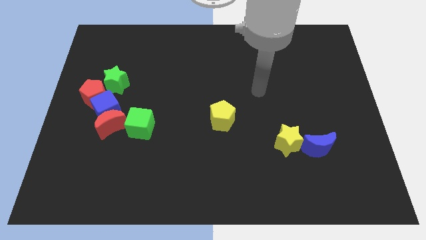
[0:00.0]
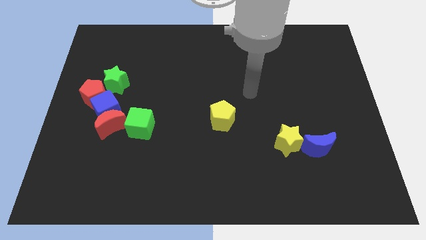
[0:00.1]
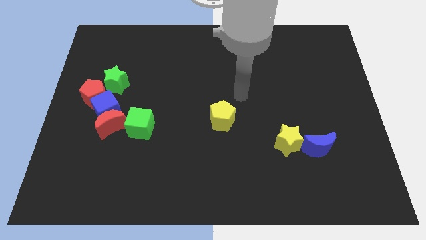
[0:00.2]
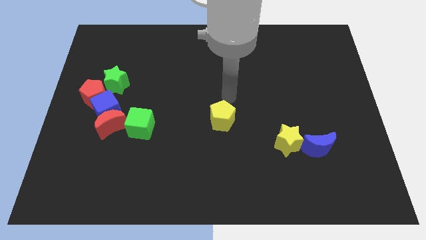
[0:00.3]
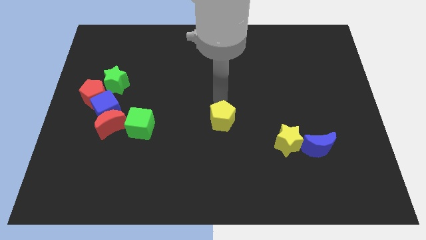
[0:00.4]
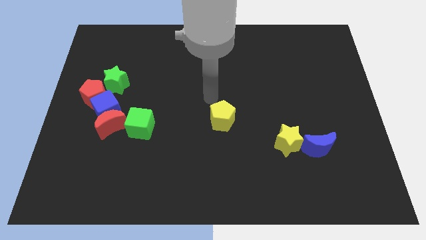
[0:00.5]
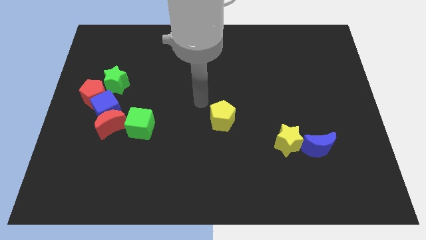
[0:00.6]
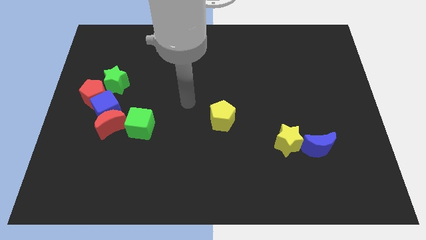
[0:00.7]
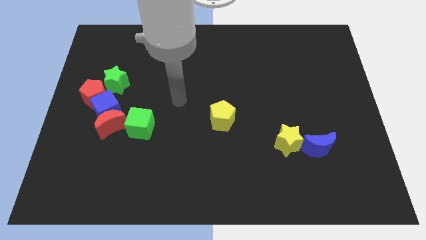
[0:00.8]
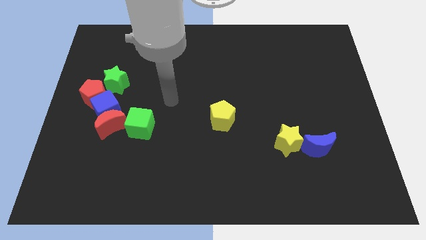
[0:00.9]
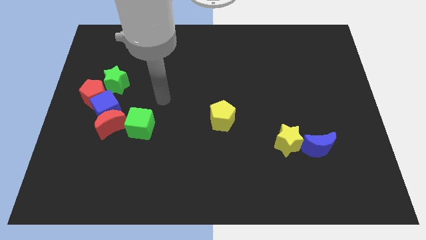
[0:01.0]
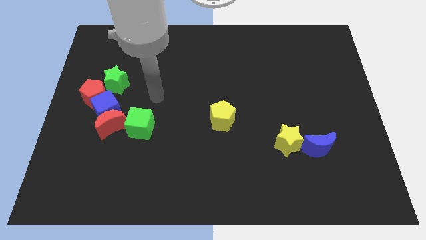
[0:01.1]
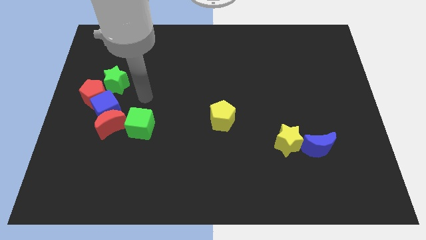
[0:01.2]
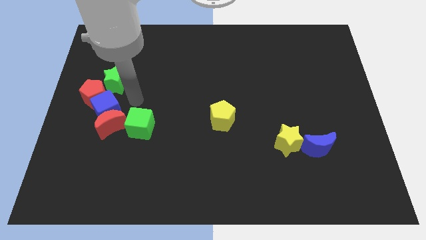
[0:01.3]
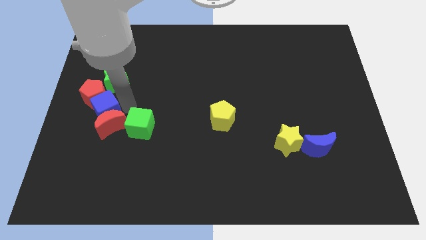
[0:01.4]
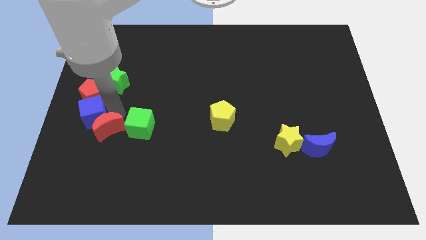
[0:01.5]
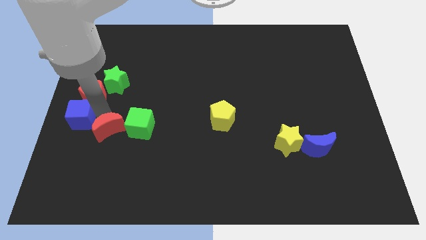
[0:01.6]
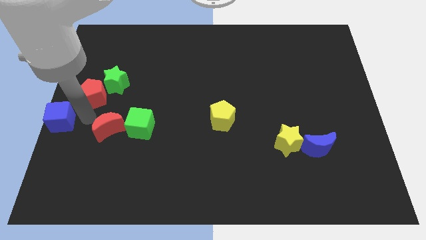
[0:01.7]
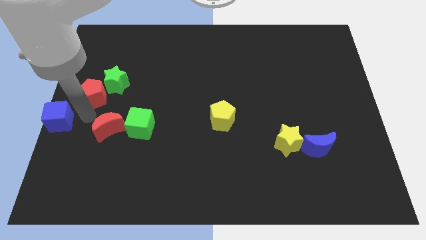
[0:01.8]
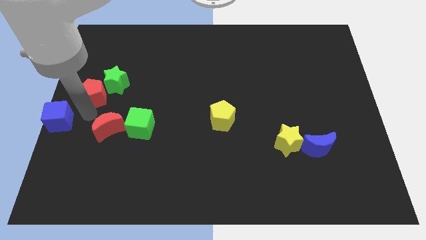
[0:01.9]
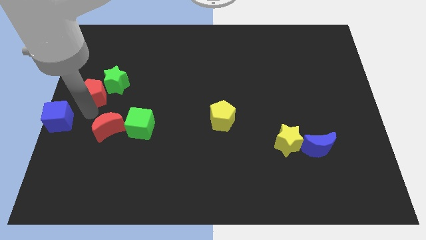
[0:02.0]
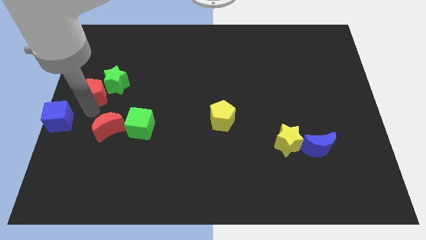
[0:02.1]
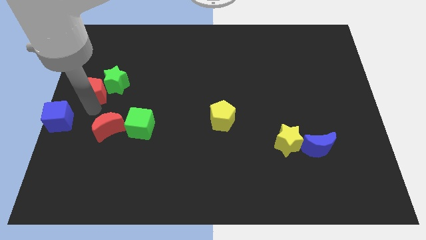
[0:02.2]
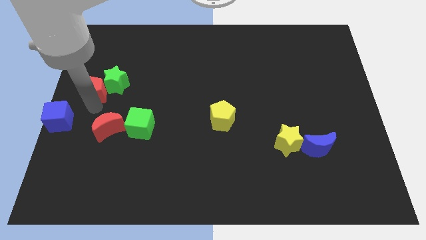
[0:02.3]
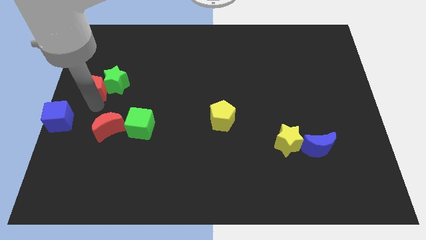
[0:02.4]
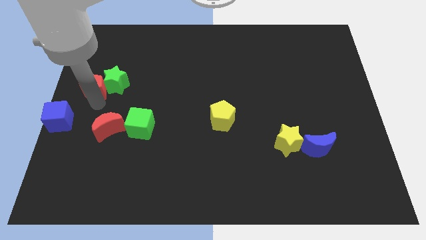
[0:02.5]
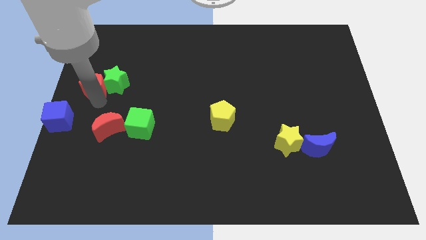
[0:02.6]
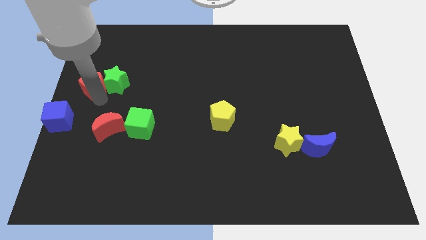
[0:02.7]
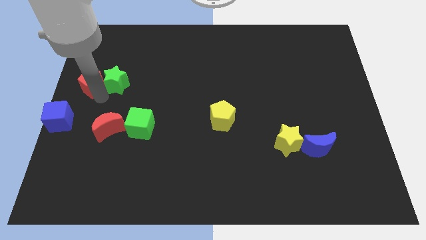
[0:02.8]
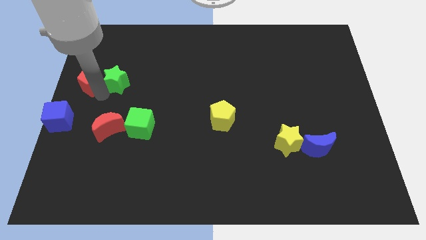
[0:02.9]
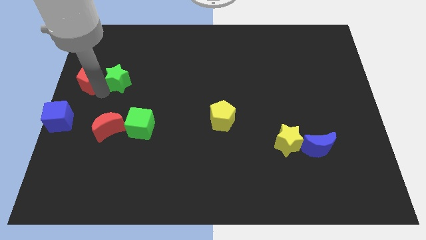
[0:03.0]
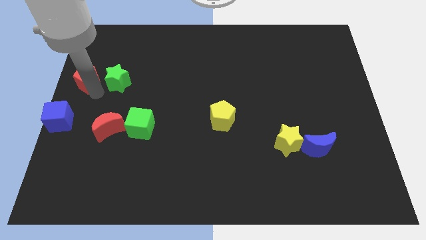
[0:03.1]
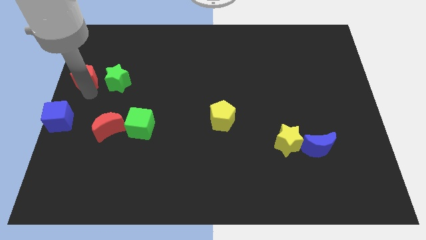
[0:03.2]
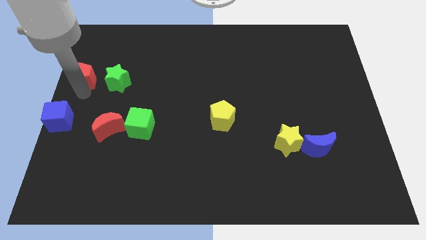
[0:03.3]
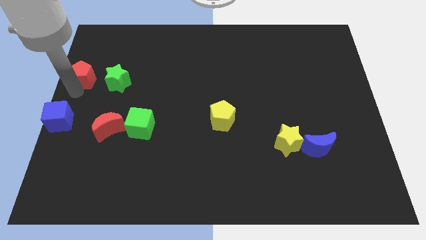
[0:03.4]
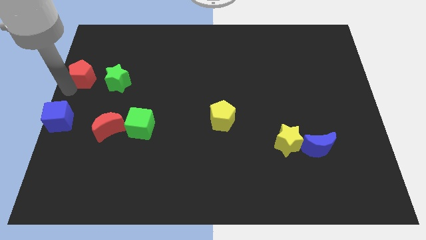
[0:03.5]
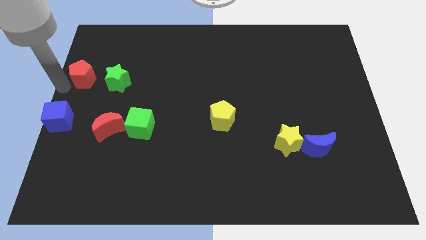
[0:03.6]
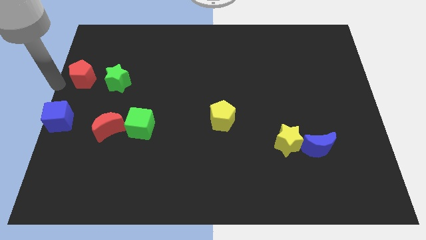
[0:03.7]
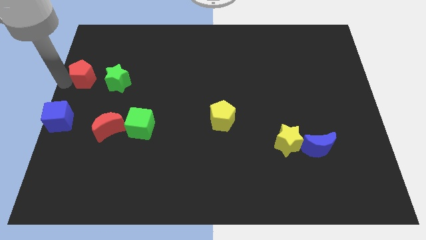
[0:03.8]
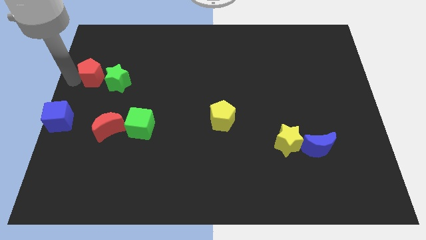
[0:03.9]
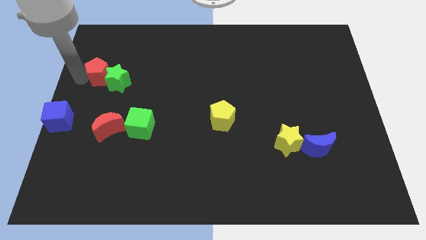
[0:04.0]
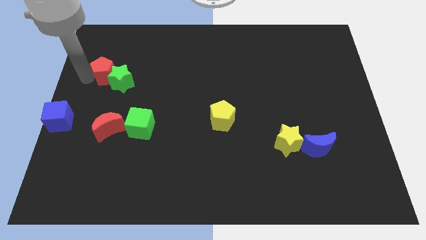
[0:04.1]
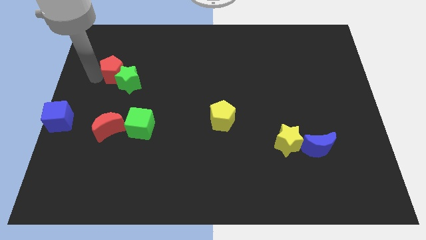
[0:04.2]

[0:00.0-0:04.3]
slightly move the red pentagon upwards and then to the right

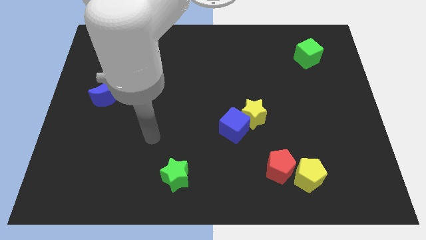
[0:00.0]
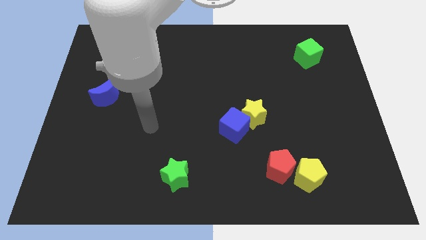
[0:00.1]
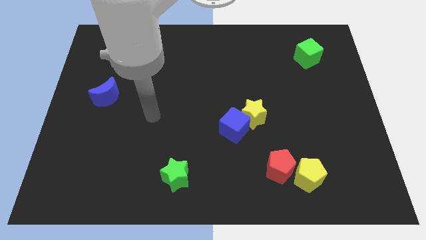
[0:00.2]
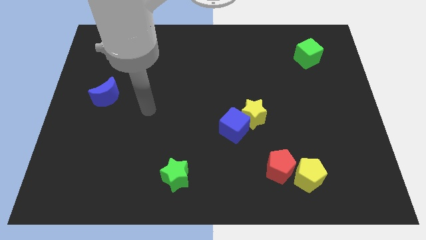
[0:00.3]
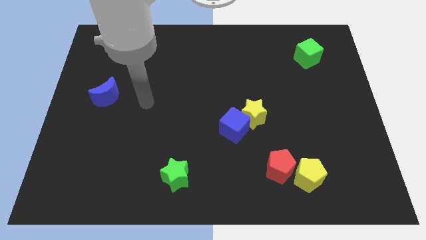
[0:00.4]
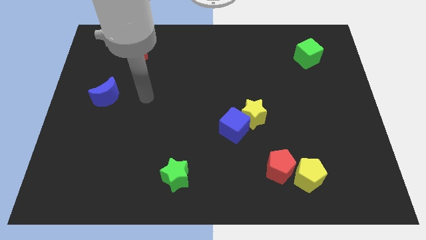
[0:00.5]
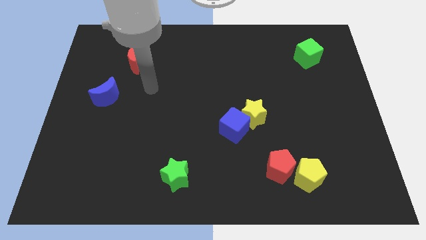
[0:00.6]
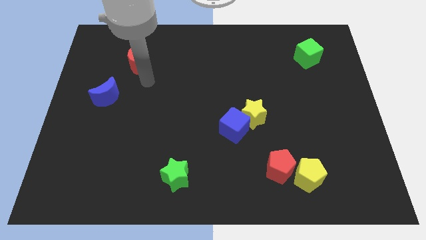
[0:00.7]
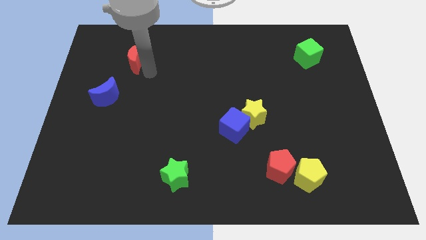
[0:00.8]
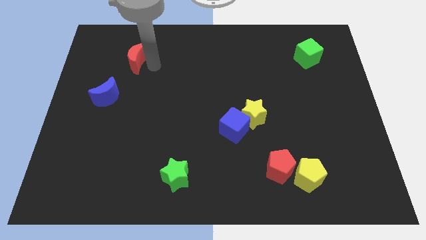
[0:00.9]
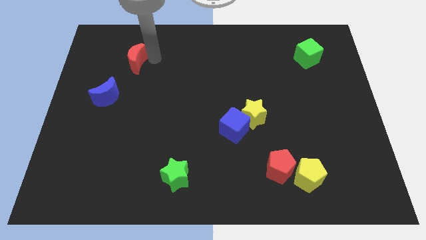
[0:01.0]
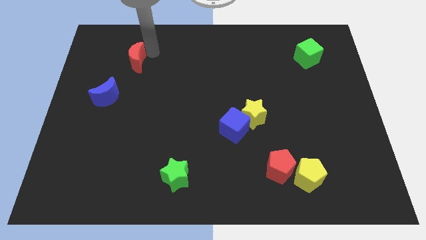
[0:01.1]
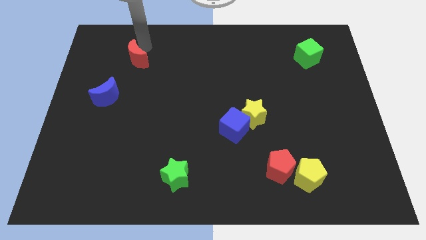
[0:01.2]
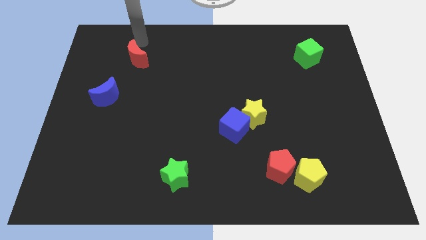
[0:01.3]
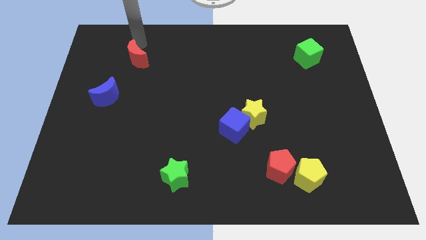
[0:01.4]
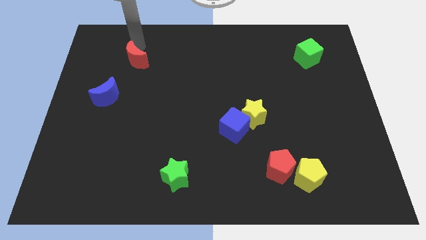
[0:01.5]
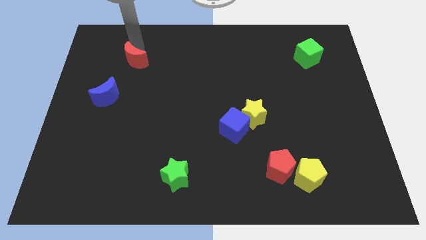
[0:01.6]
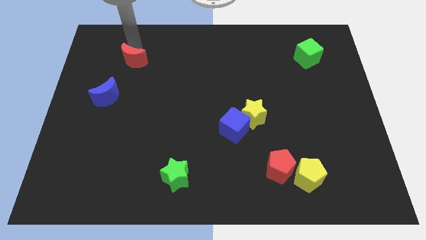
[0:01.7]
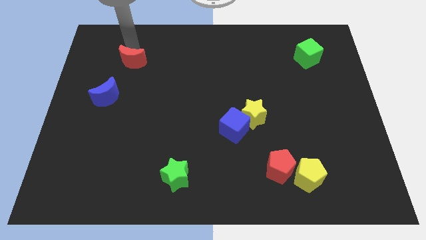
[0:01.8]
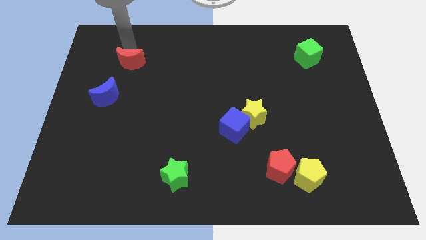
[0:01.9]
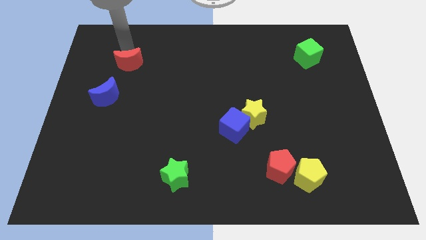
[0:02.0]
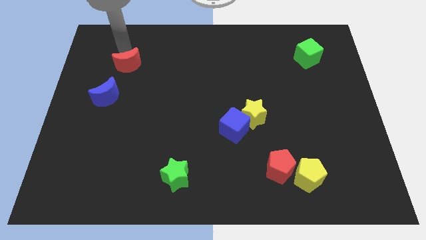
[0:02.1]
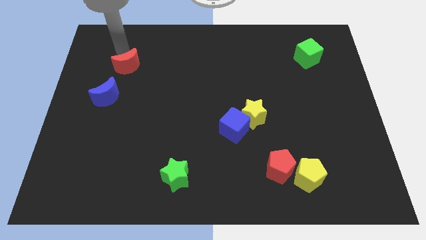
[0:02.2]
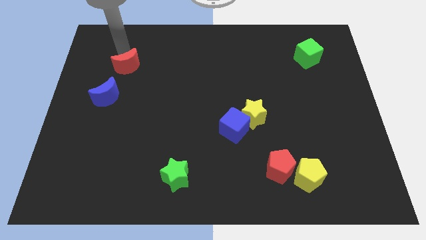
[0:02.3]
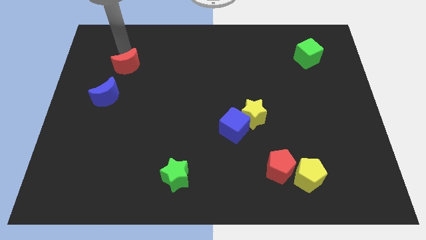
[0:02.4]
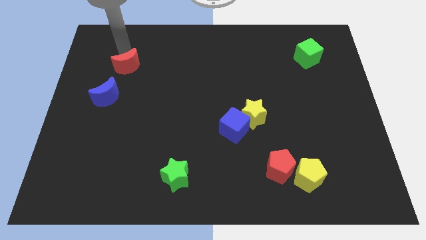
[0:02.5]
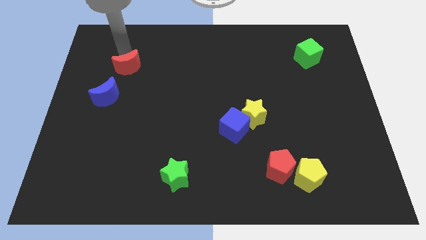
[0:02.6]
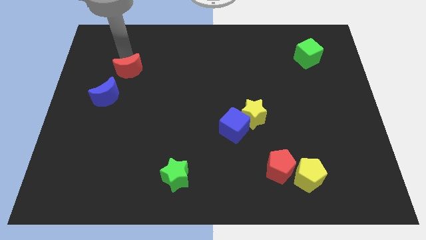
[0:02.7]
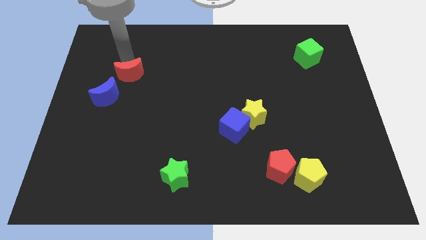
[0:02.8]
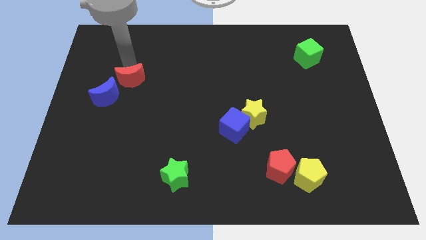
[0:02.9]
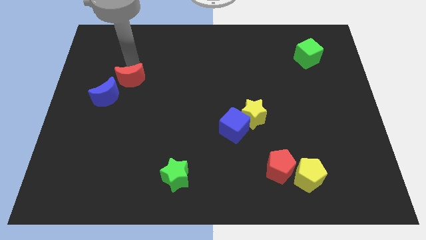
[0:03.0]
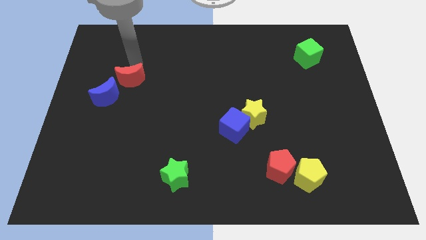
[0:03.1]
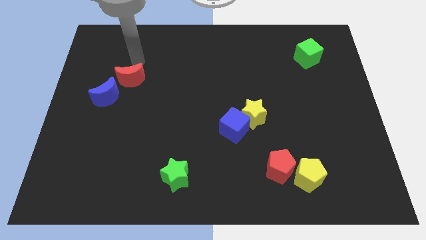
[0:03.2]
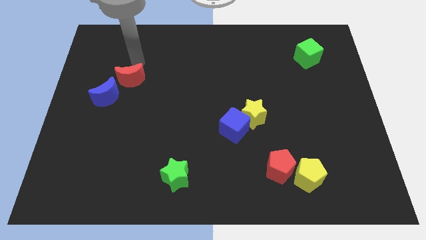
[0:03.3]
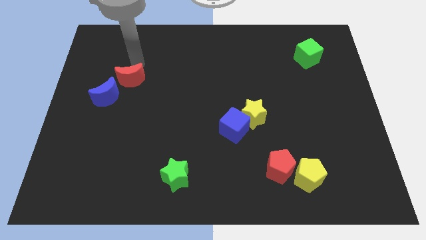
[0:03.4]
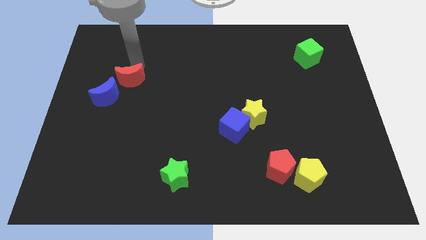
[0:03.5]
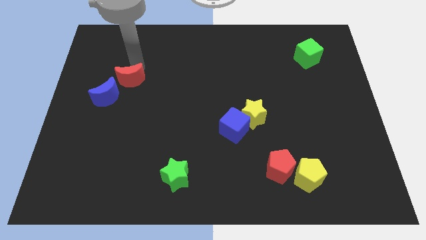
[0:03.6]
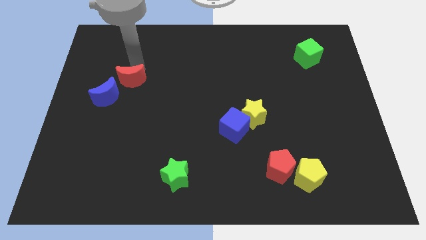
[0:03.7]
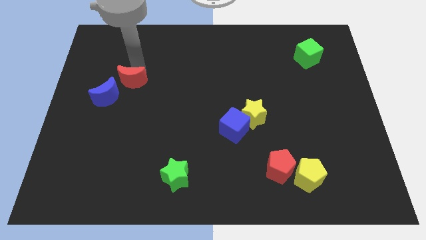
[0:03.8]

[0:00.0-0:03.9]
slightly move the red moon down
